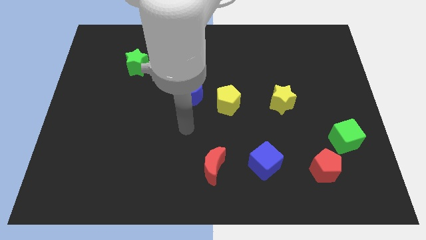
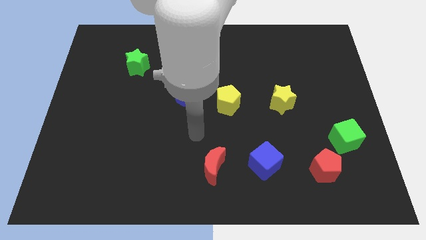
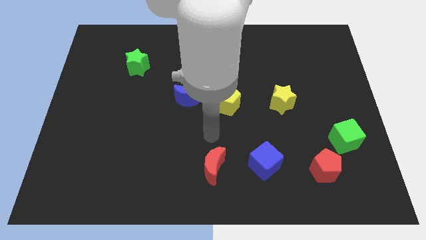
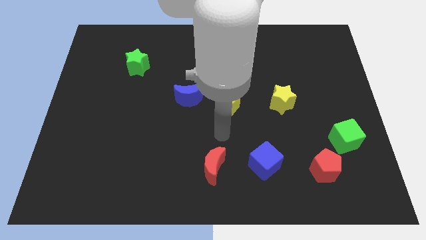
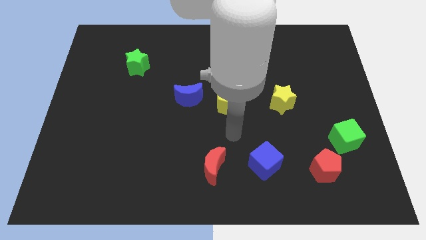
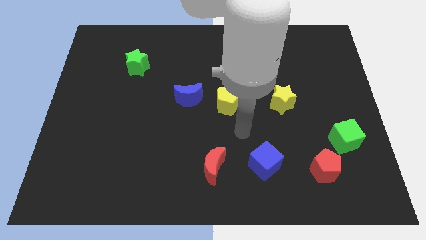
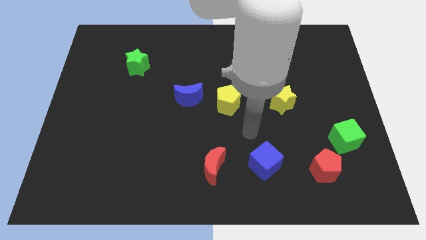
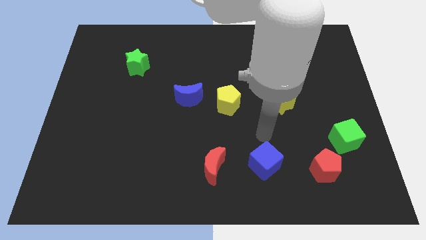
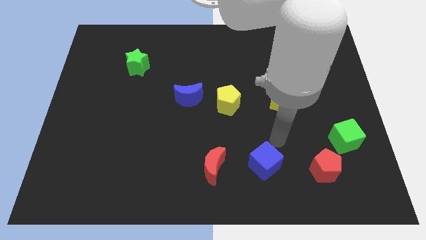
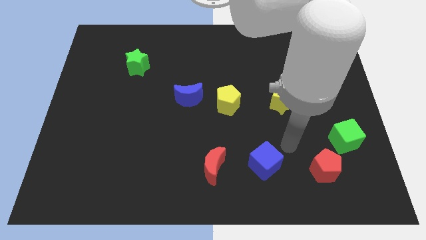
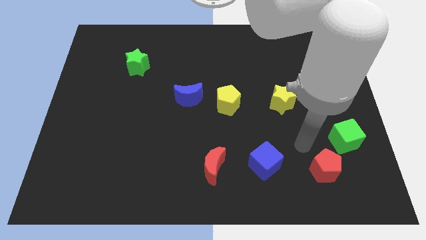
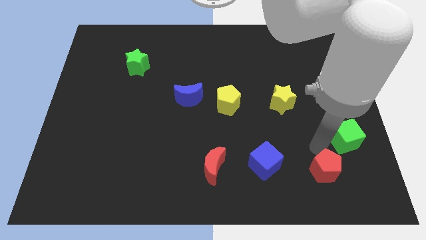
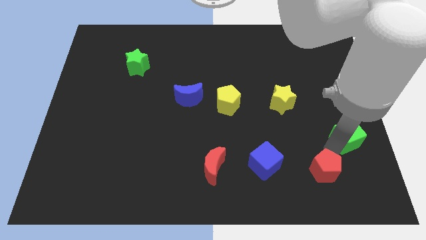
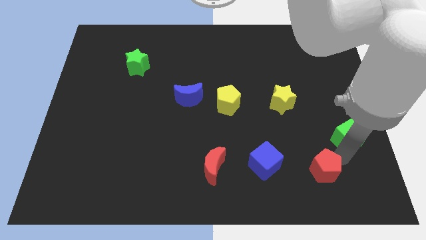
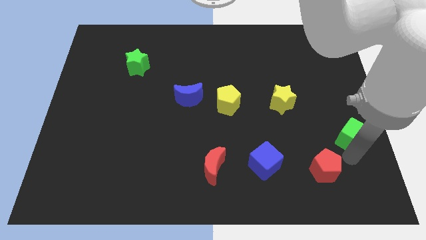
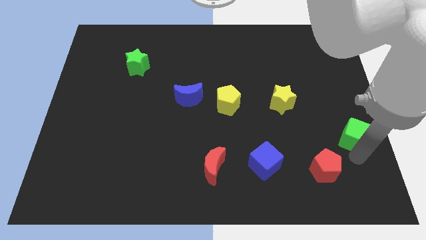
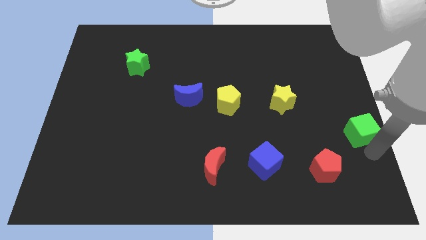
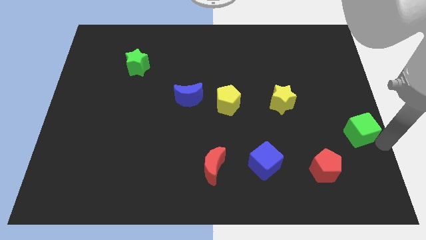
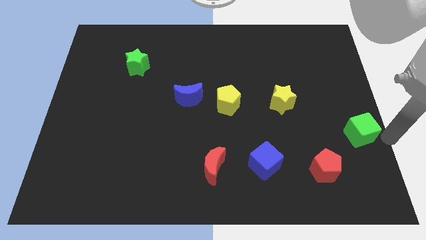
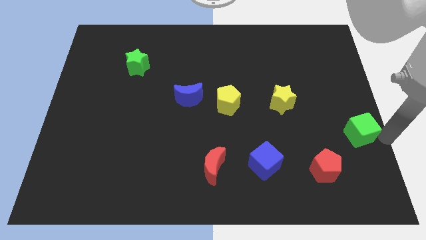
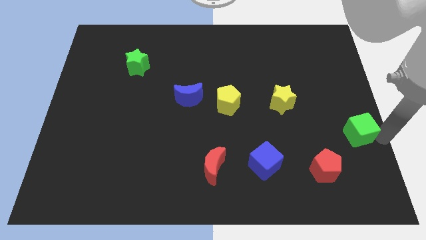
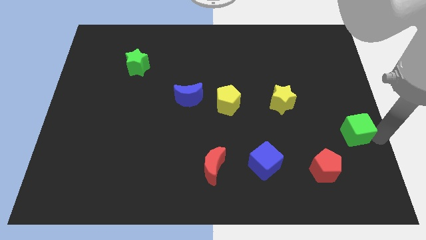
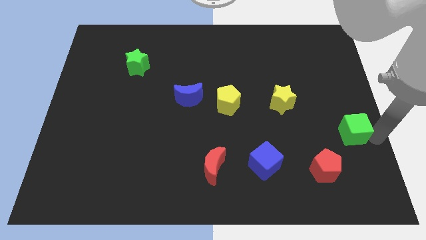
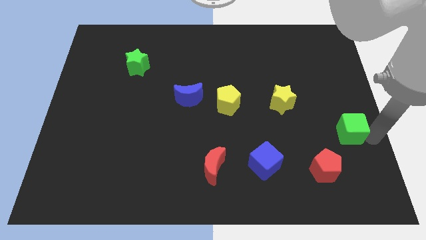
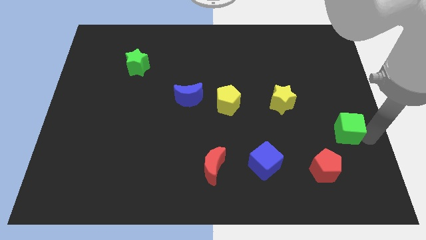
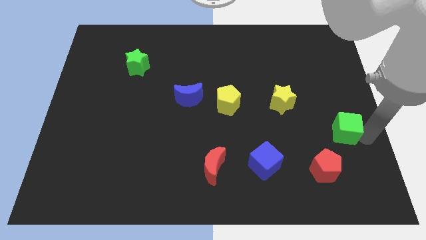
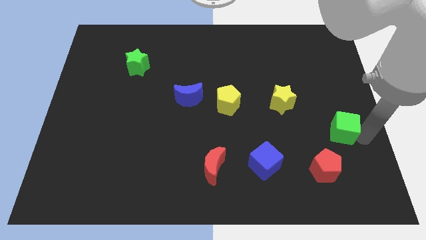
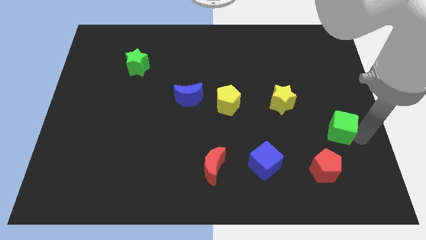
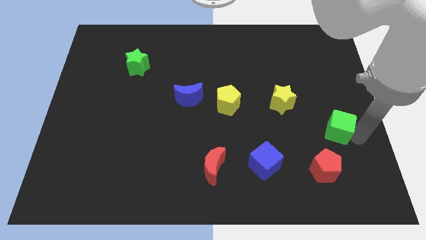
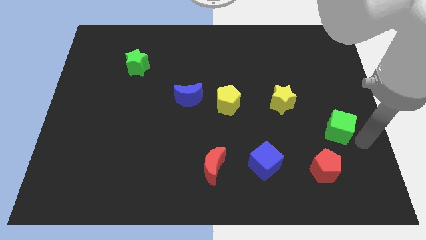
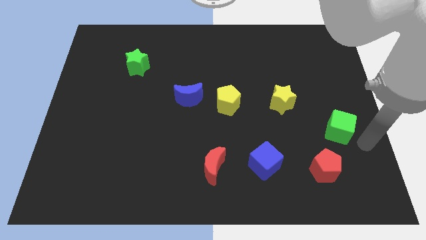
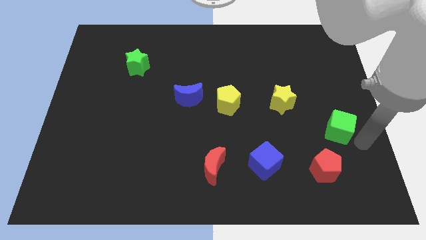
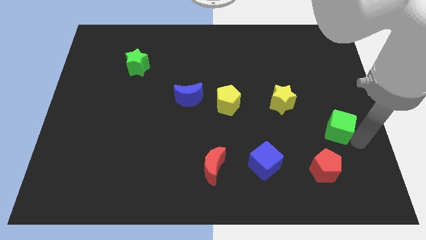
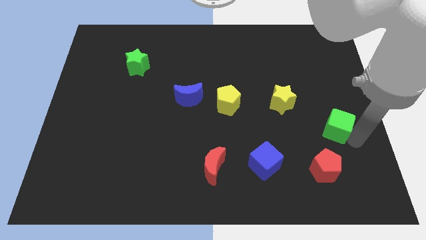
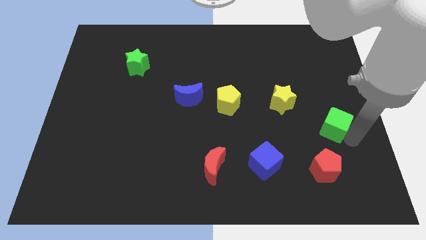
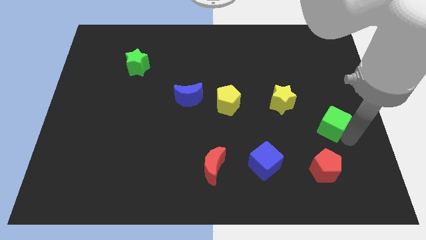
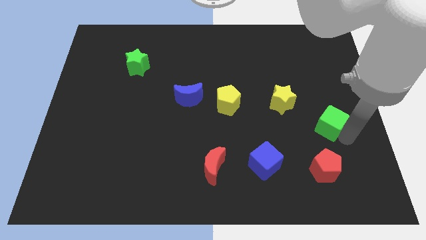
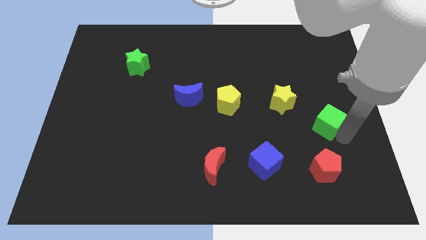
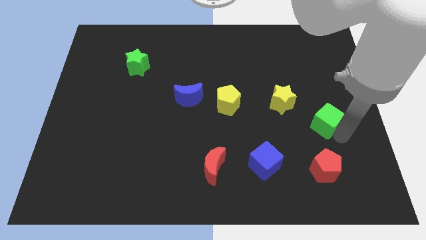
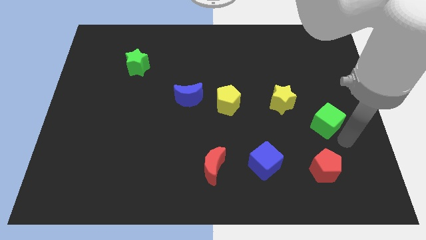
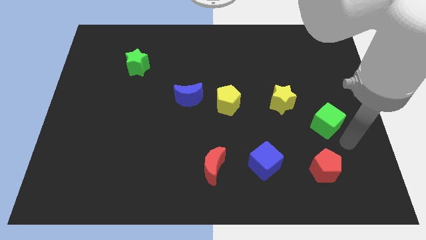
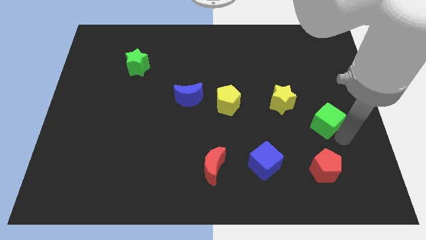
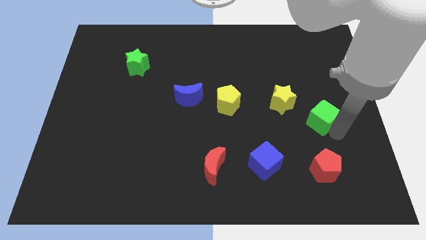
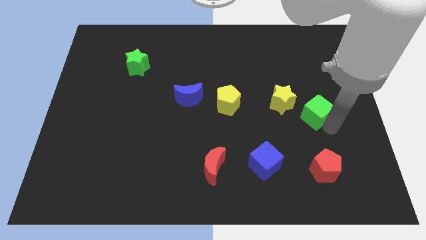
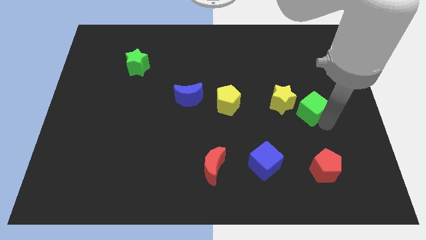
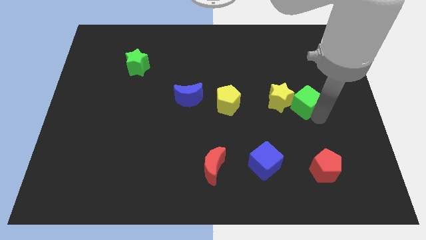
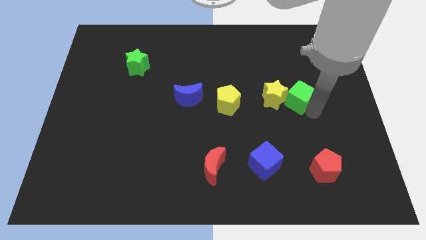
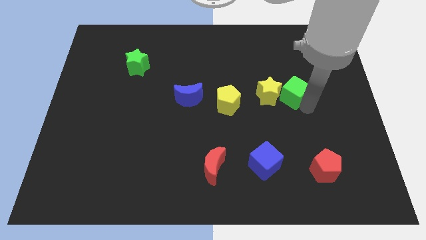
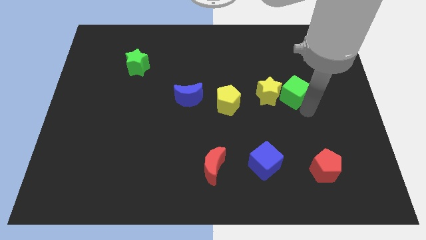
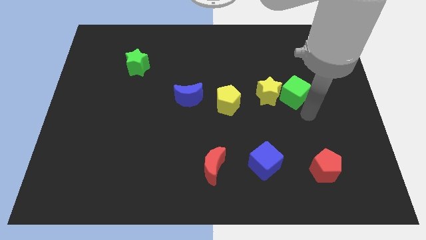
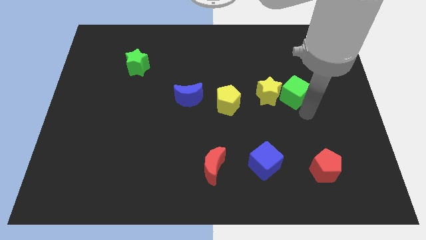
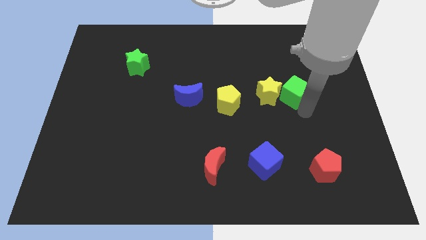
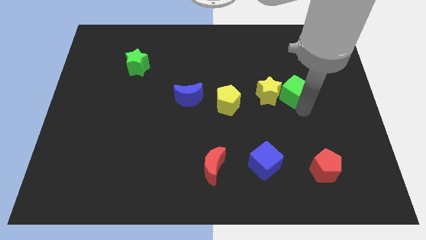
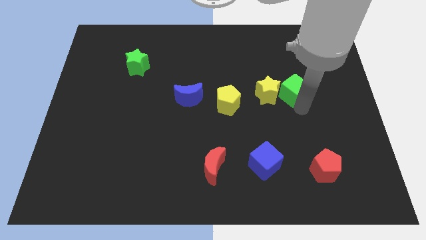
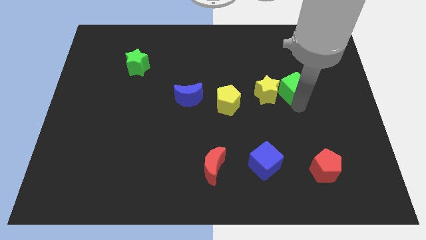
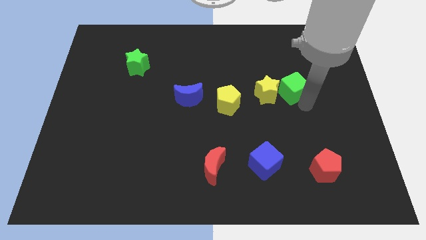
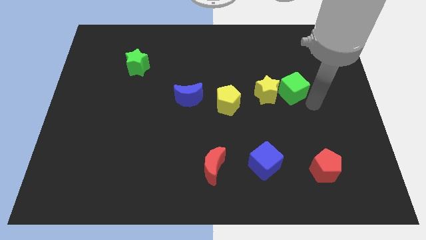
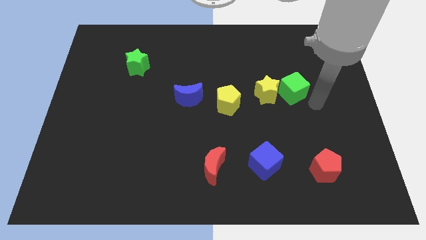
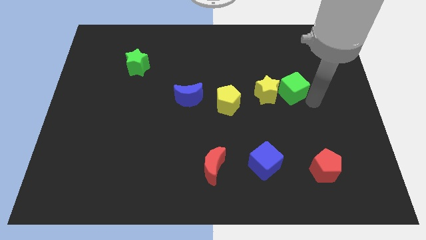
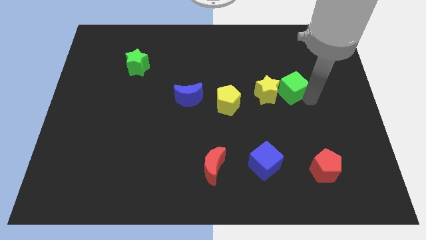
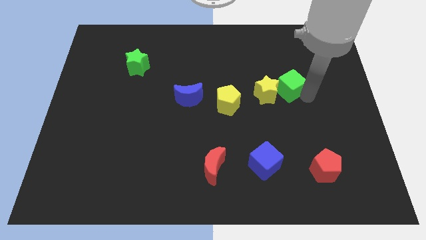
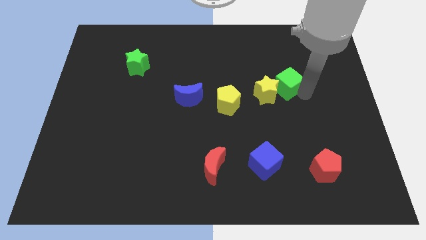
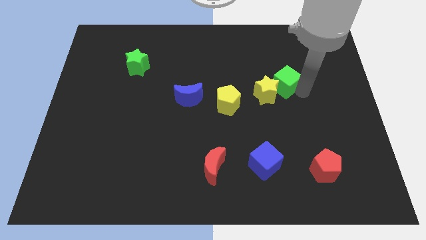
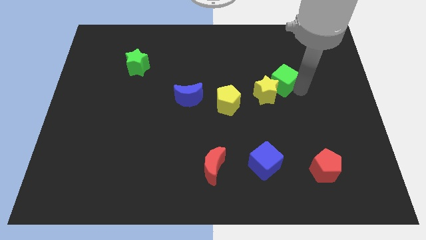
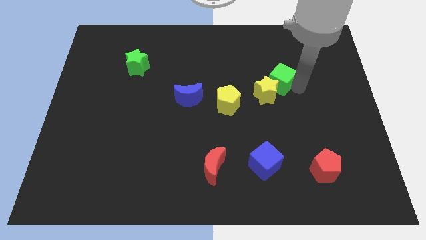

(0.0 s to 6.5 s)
push the green cube up and to the left

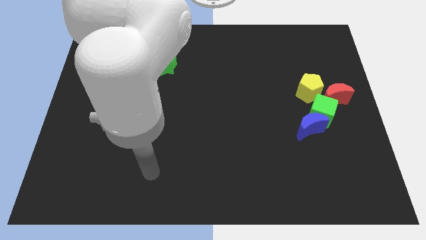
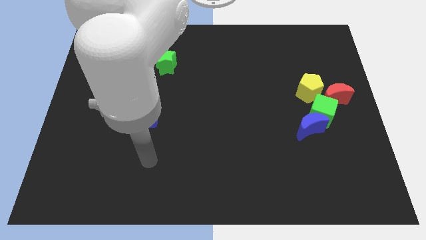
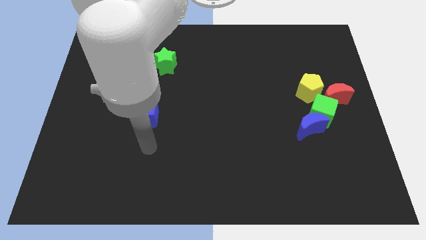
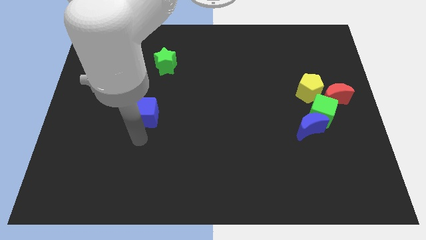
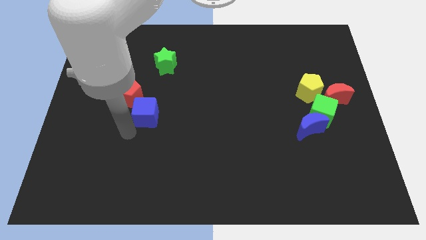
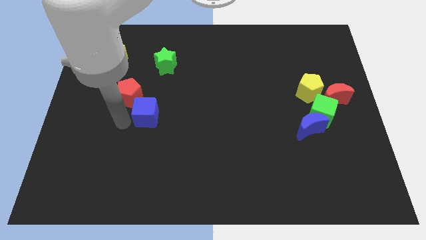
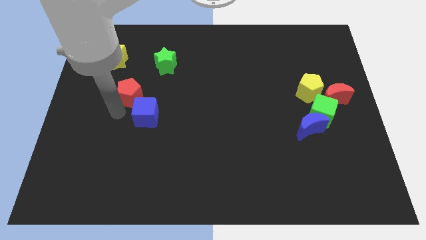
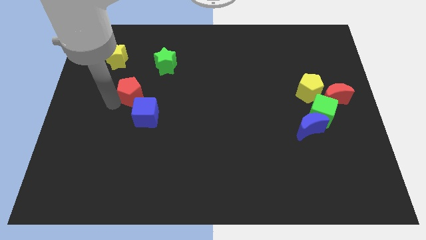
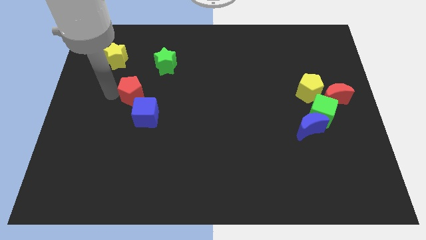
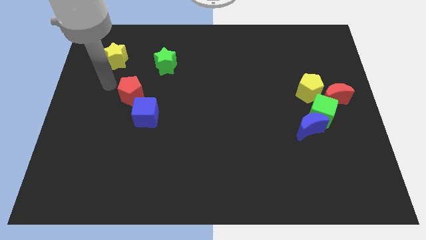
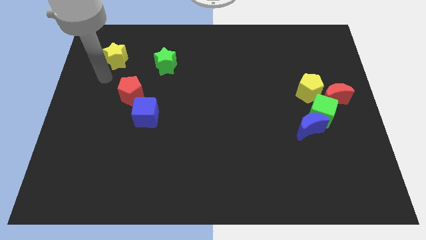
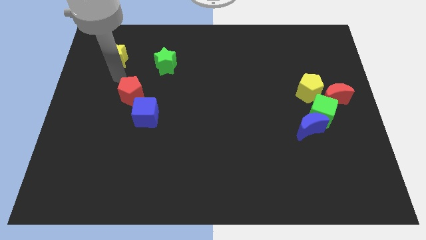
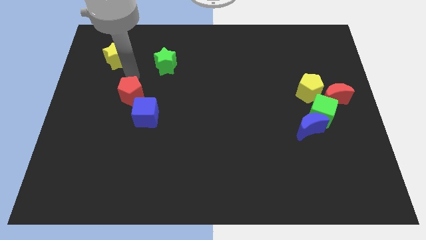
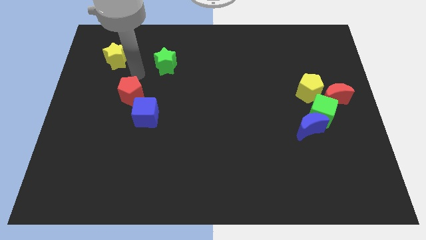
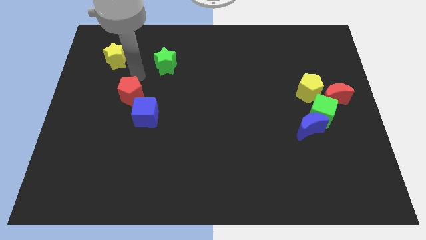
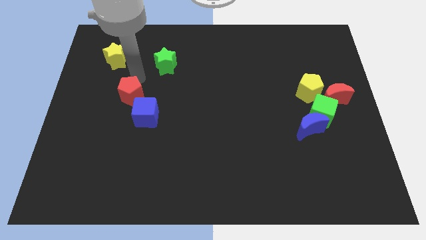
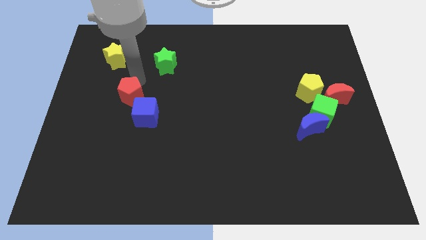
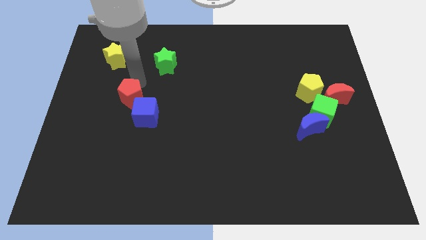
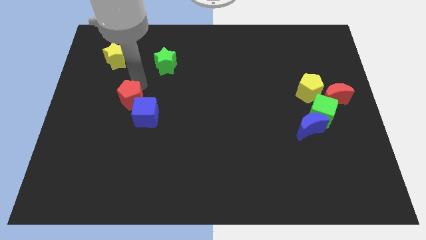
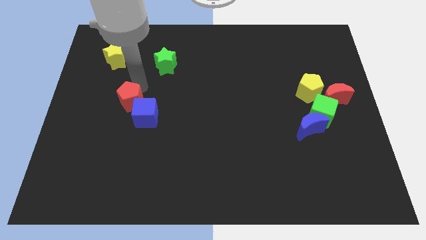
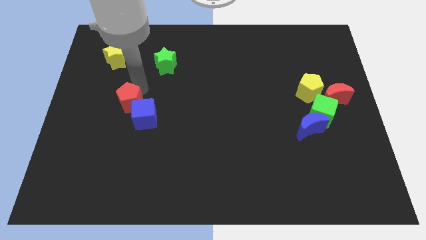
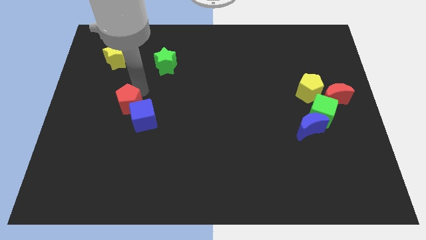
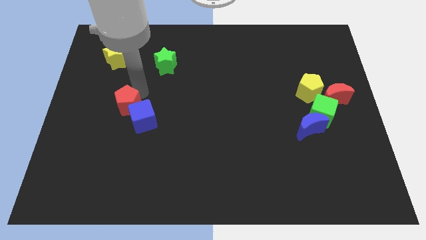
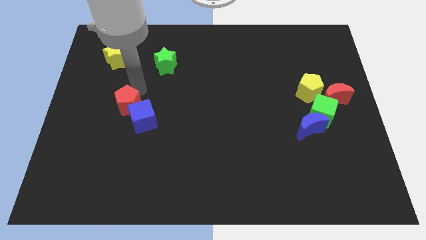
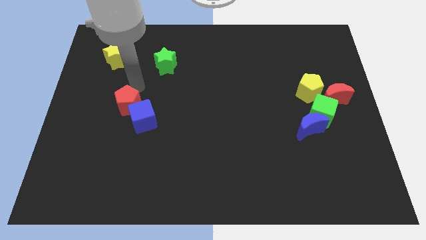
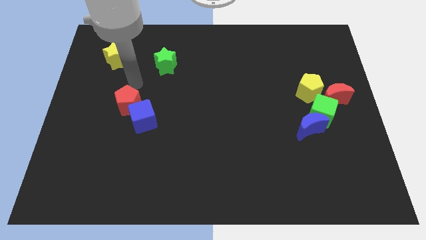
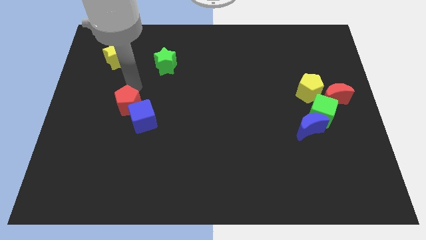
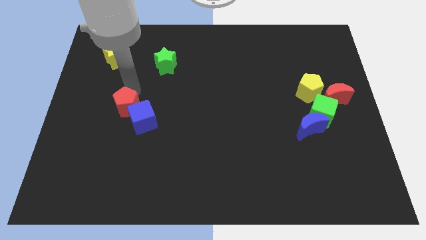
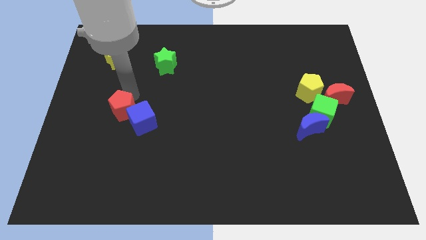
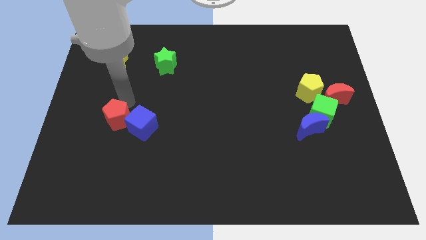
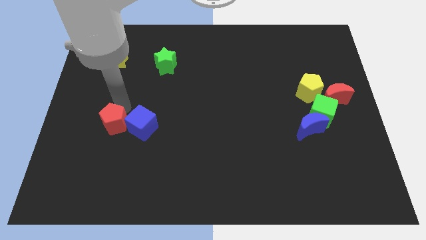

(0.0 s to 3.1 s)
slightly move the red pentagon down
